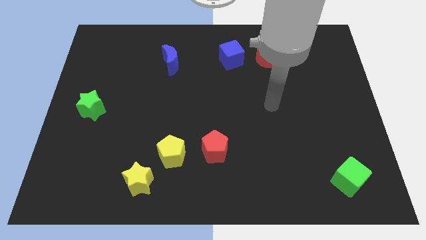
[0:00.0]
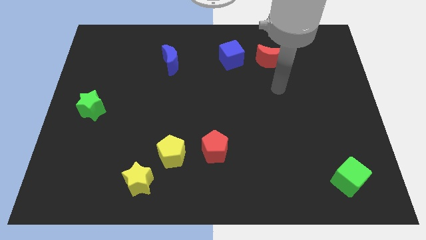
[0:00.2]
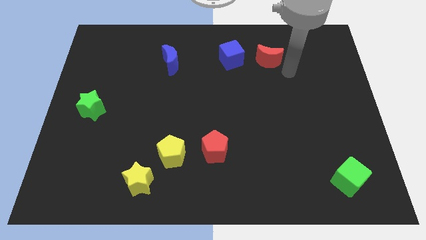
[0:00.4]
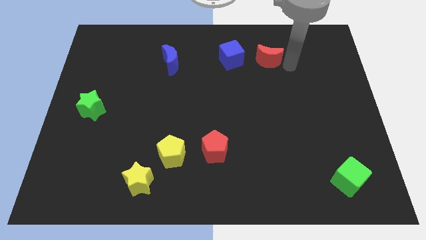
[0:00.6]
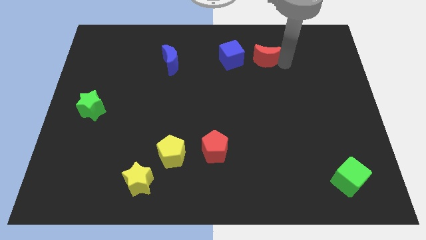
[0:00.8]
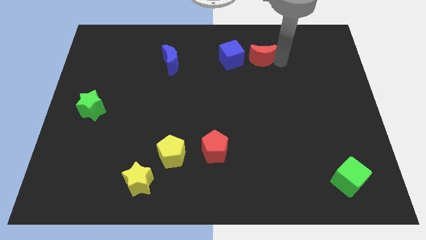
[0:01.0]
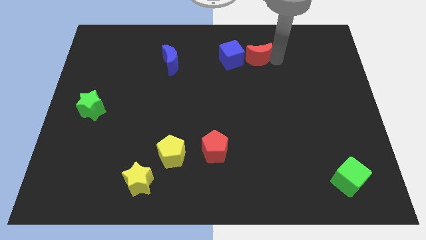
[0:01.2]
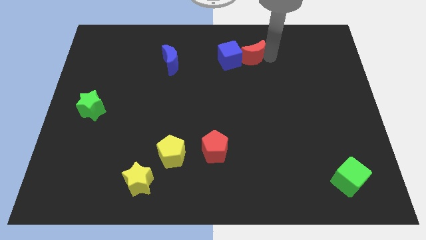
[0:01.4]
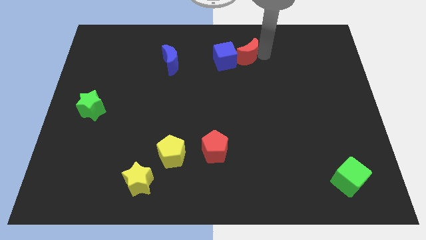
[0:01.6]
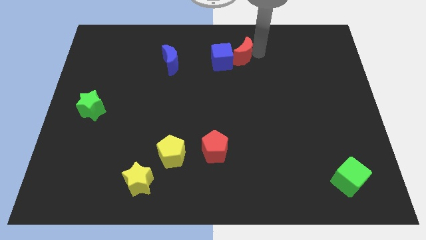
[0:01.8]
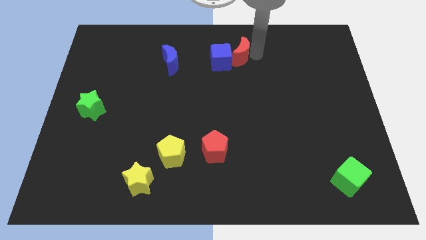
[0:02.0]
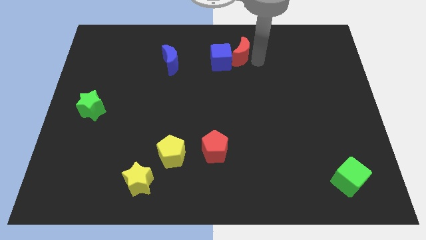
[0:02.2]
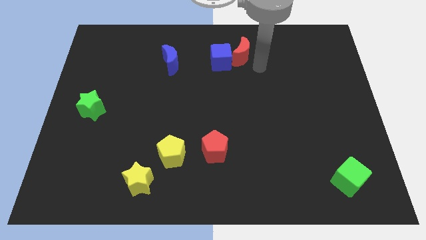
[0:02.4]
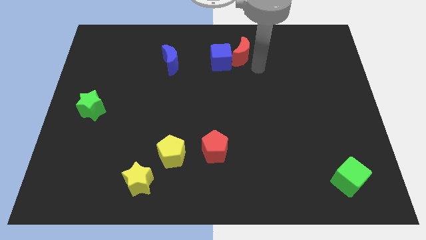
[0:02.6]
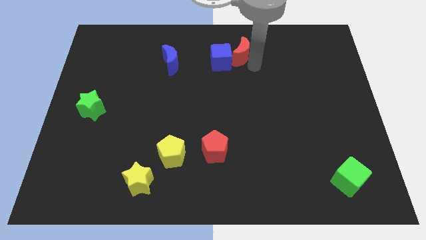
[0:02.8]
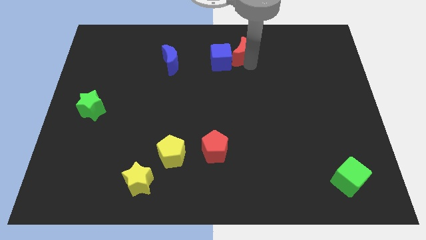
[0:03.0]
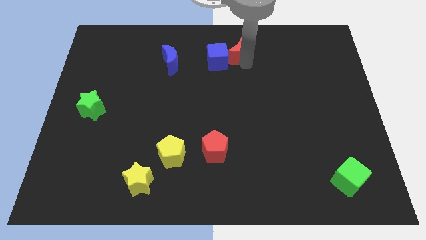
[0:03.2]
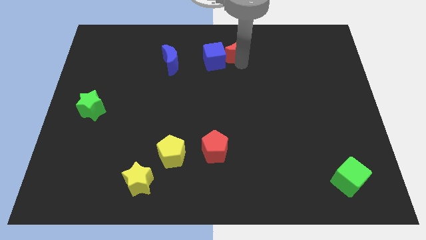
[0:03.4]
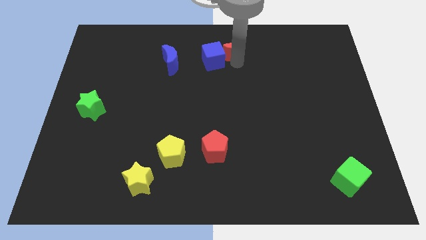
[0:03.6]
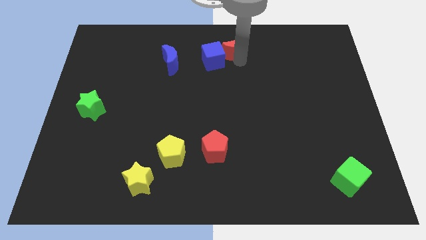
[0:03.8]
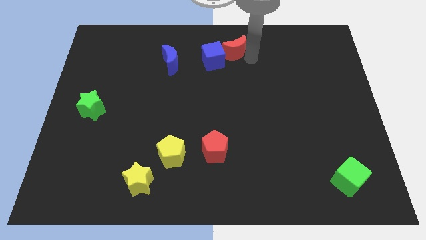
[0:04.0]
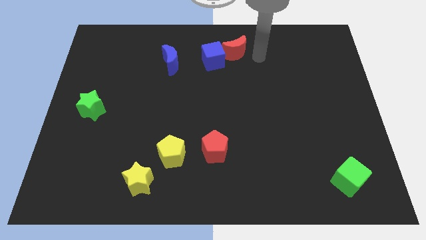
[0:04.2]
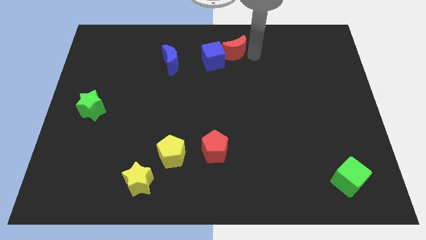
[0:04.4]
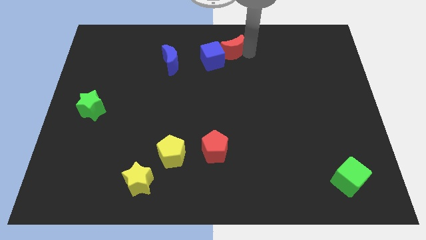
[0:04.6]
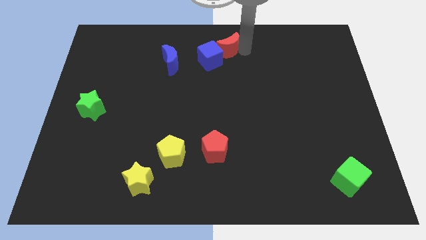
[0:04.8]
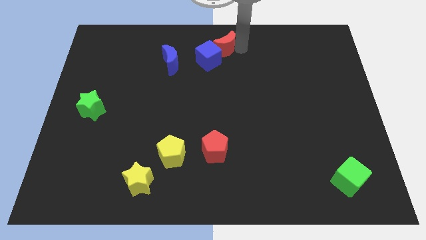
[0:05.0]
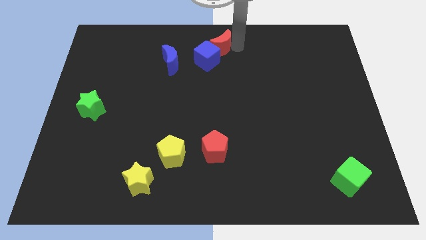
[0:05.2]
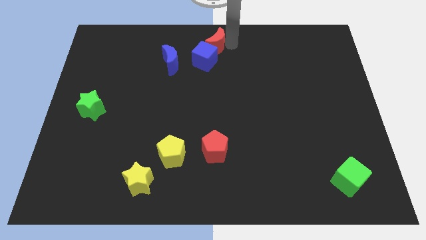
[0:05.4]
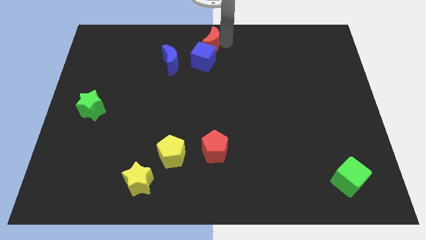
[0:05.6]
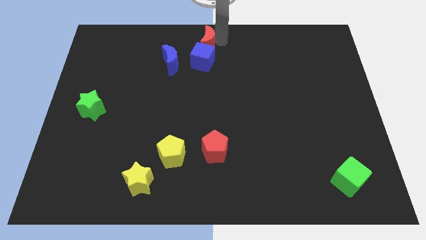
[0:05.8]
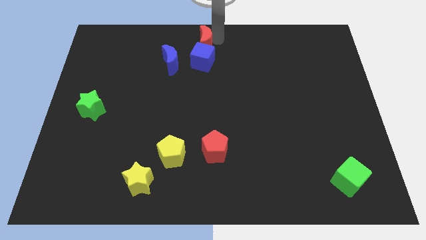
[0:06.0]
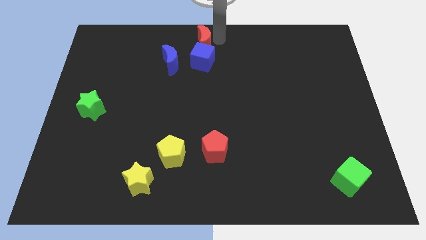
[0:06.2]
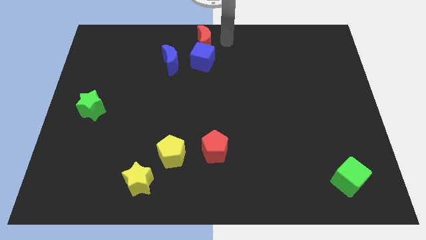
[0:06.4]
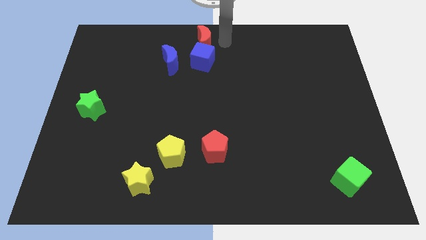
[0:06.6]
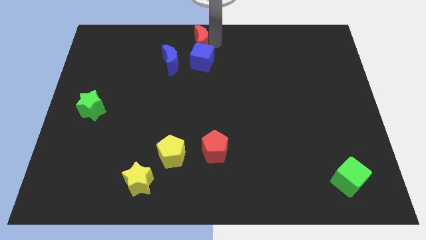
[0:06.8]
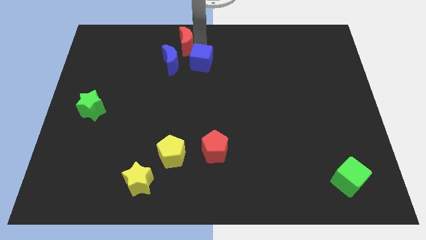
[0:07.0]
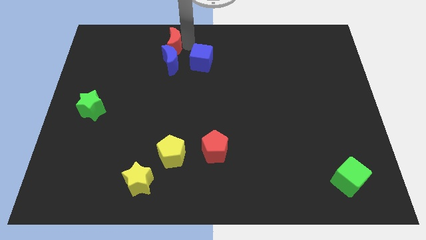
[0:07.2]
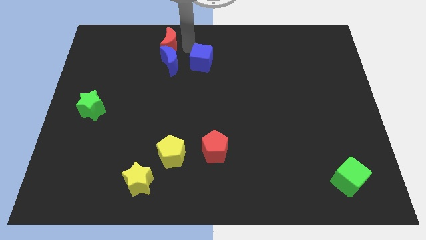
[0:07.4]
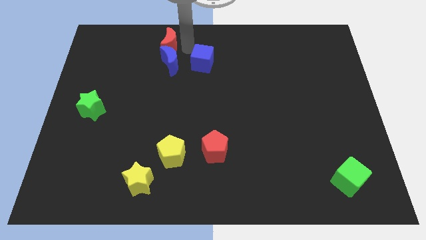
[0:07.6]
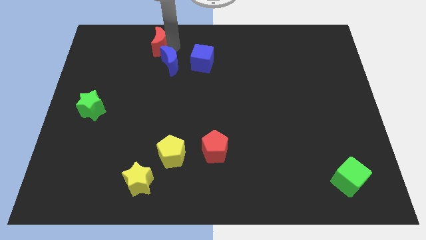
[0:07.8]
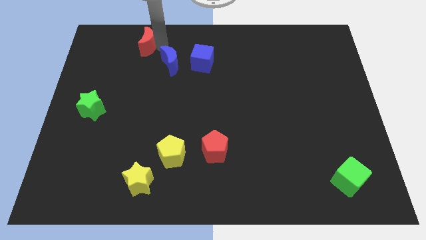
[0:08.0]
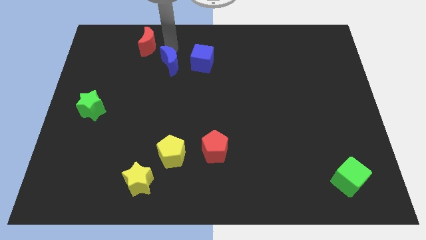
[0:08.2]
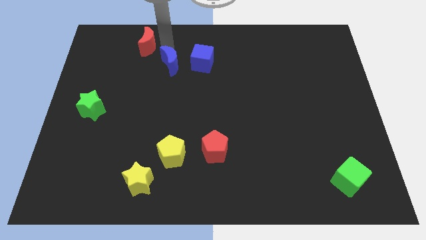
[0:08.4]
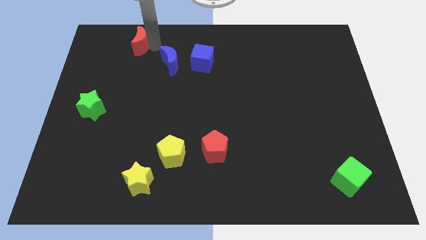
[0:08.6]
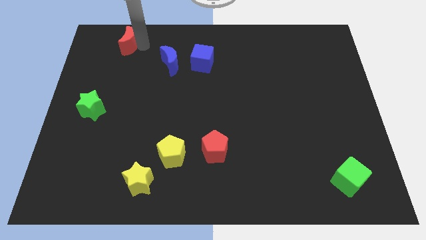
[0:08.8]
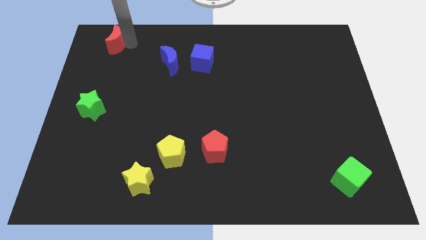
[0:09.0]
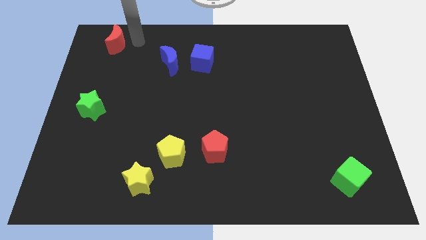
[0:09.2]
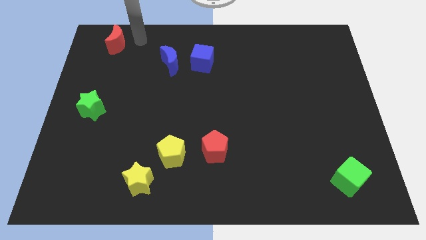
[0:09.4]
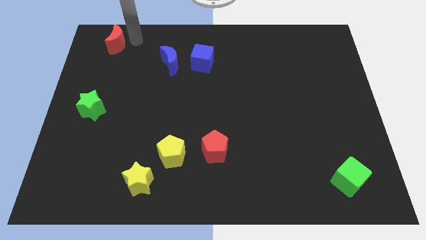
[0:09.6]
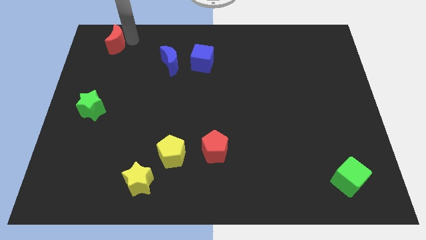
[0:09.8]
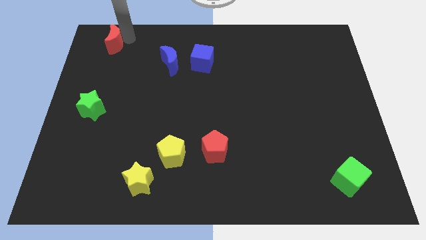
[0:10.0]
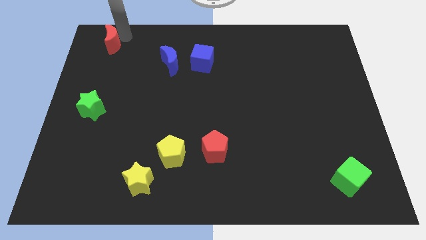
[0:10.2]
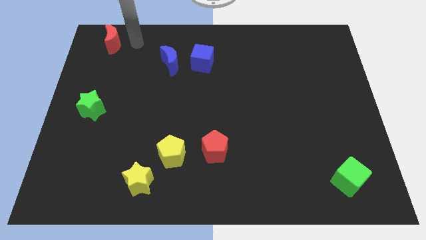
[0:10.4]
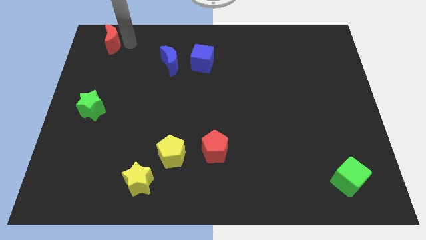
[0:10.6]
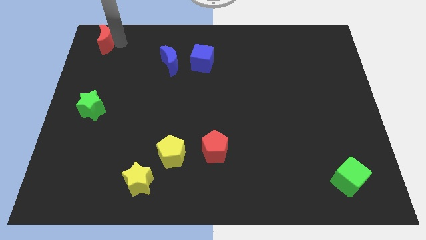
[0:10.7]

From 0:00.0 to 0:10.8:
push the red moon to the top left
